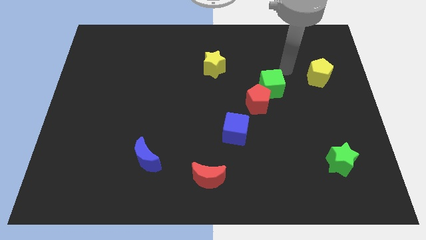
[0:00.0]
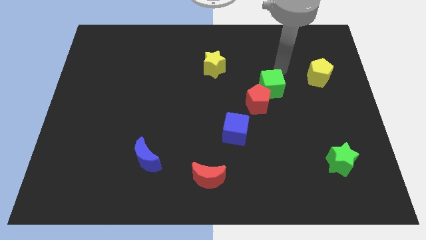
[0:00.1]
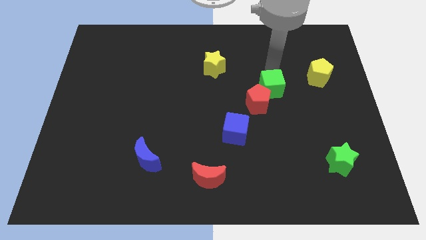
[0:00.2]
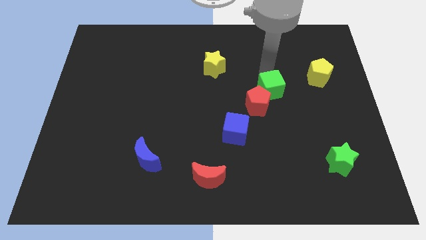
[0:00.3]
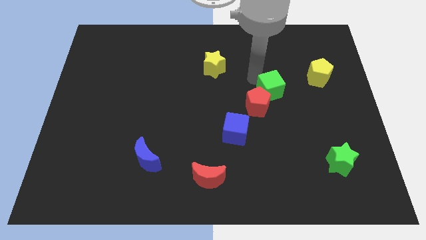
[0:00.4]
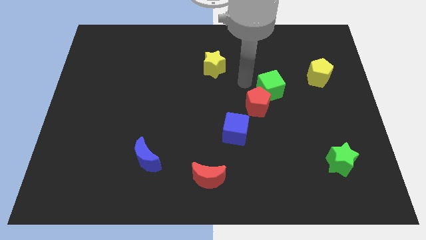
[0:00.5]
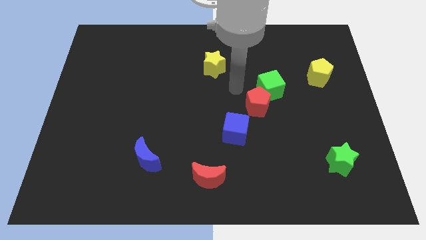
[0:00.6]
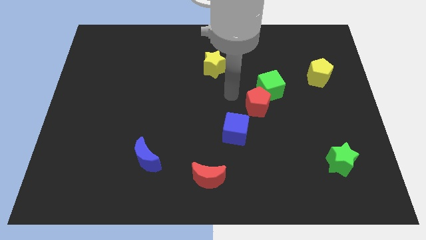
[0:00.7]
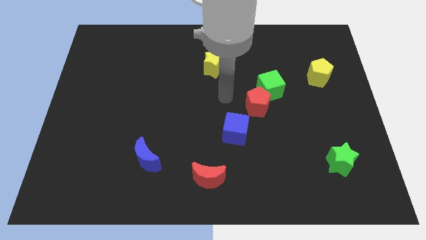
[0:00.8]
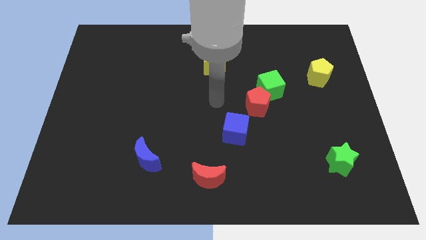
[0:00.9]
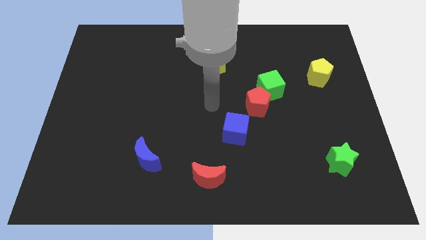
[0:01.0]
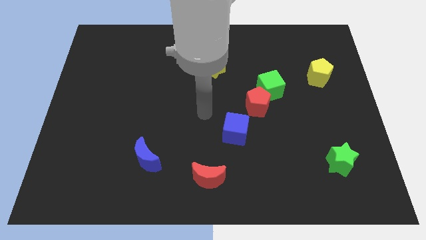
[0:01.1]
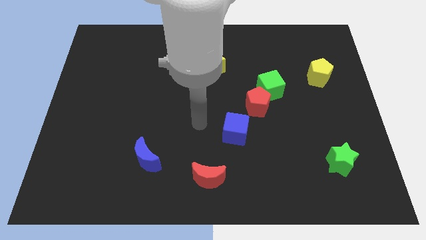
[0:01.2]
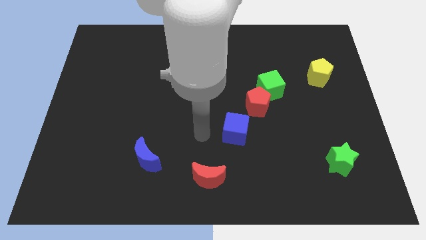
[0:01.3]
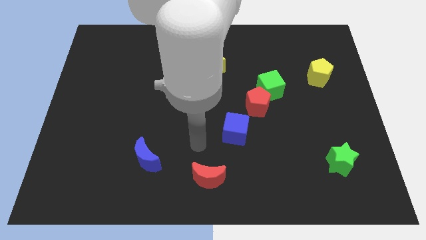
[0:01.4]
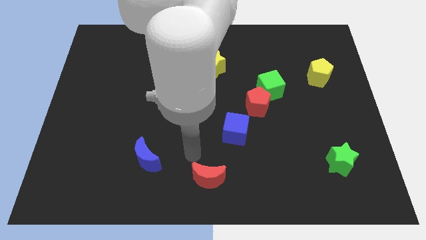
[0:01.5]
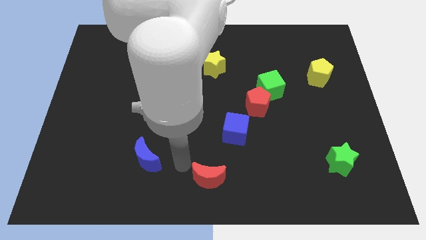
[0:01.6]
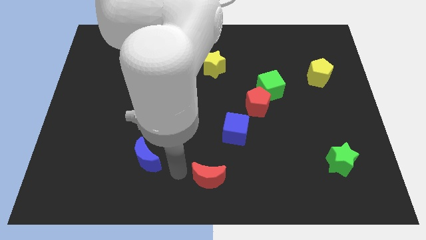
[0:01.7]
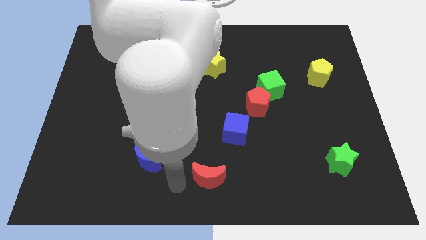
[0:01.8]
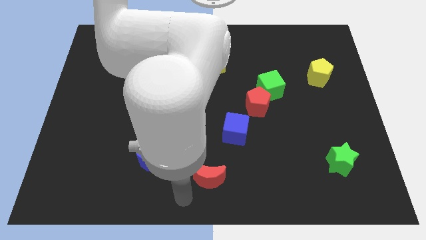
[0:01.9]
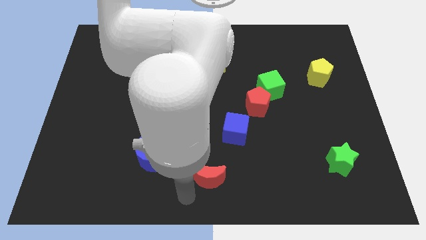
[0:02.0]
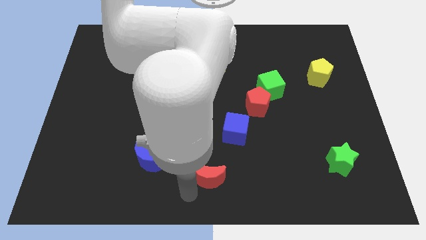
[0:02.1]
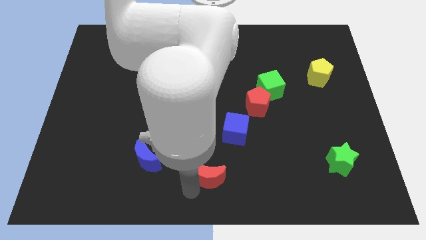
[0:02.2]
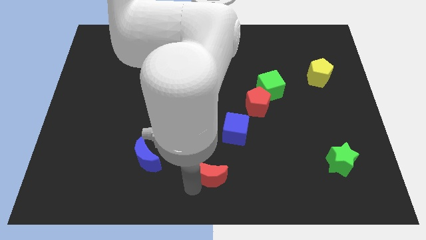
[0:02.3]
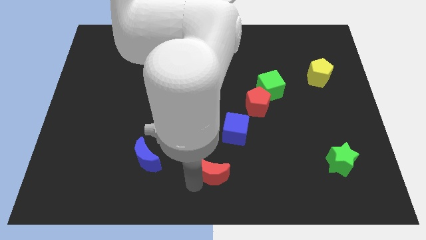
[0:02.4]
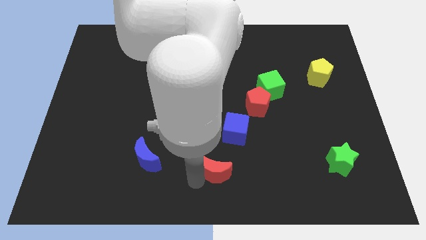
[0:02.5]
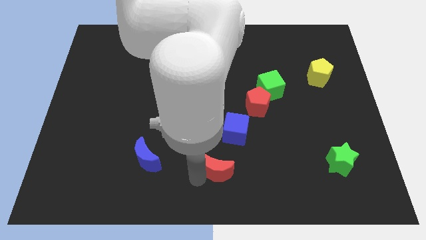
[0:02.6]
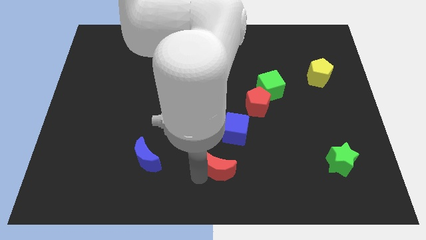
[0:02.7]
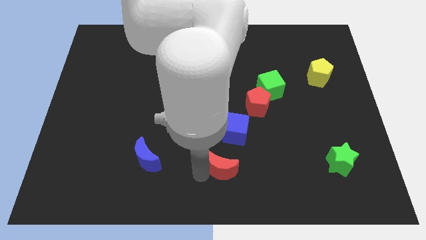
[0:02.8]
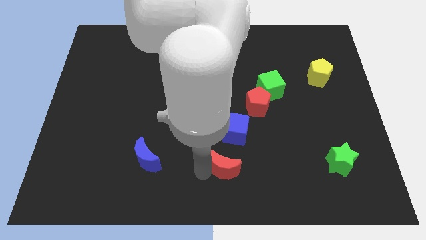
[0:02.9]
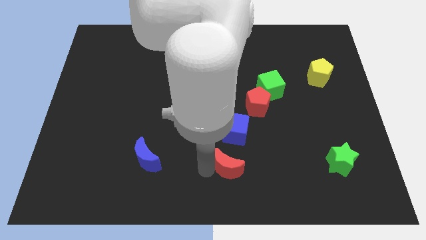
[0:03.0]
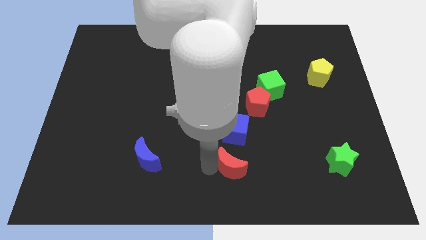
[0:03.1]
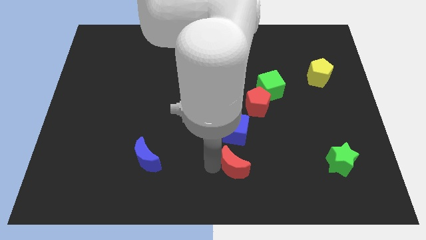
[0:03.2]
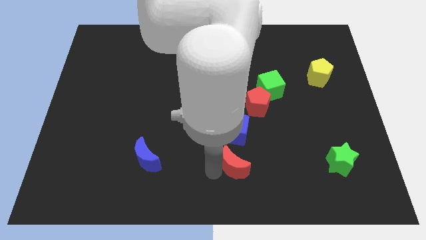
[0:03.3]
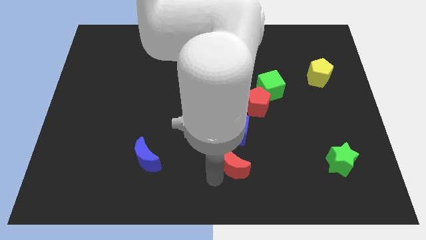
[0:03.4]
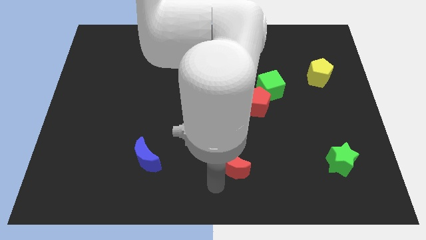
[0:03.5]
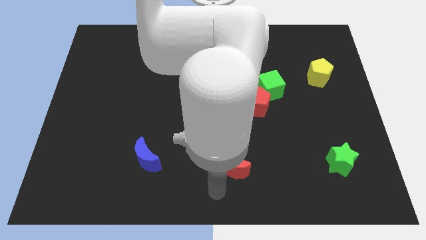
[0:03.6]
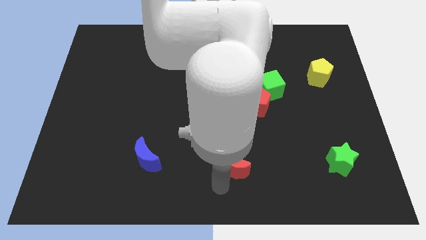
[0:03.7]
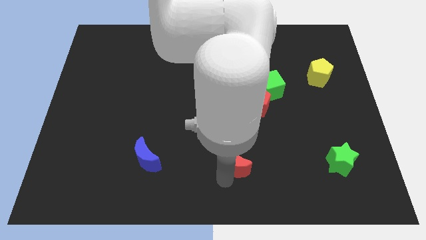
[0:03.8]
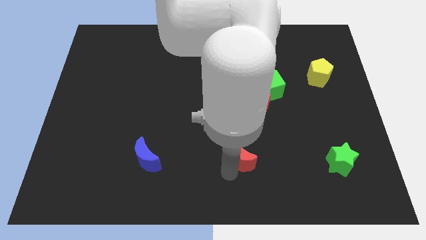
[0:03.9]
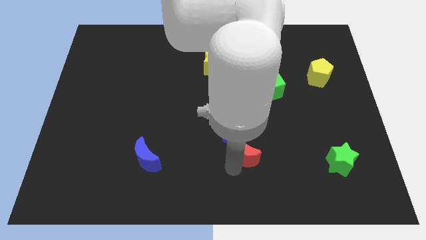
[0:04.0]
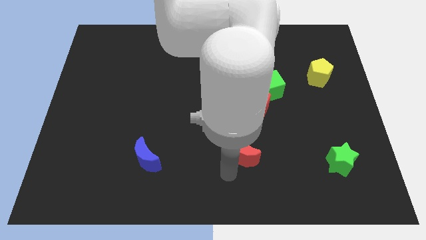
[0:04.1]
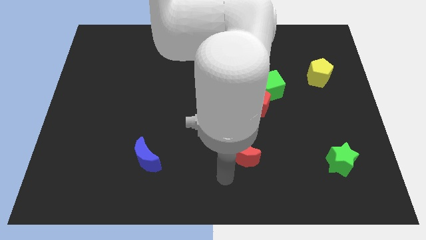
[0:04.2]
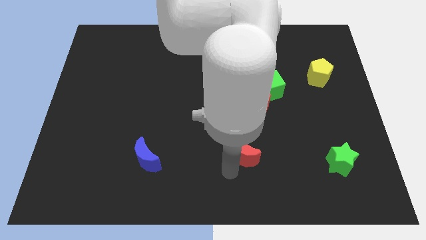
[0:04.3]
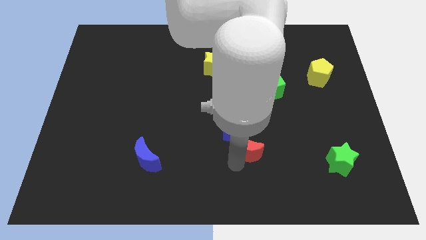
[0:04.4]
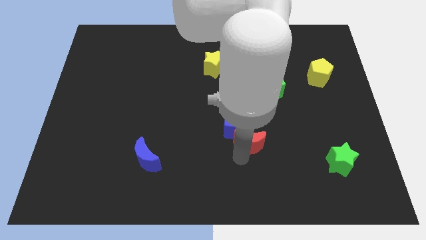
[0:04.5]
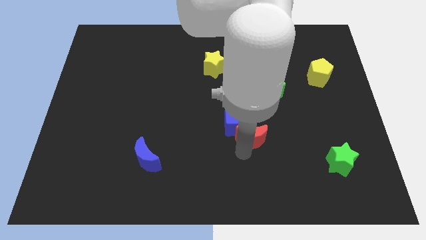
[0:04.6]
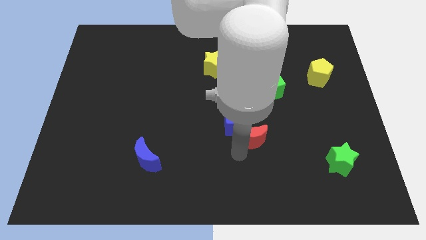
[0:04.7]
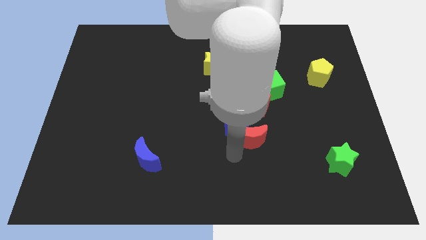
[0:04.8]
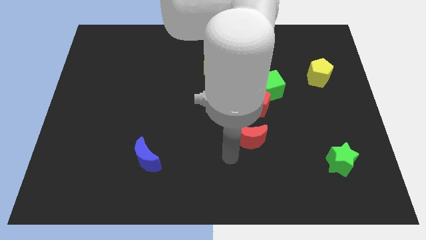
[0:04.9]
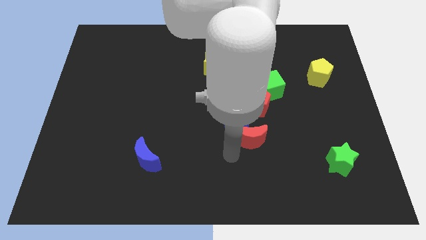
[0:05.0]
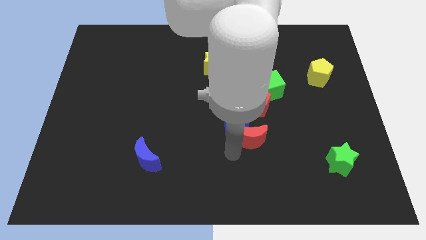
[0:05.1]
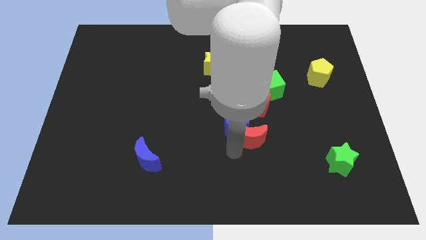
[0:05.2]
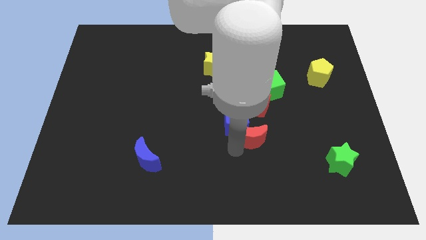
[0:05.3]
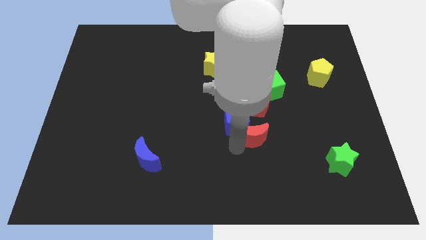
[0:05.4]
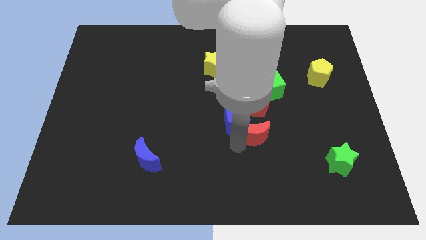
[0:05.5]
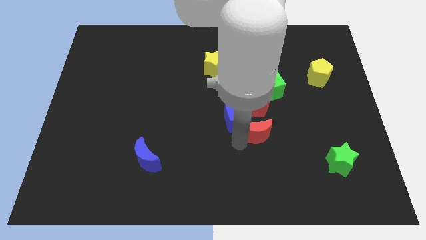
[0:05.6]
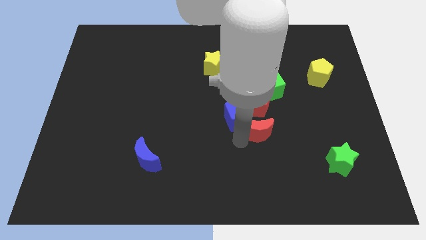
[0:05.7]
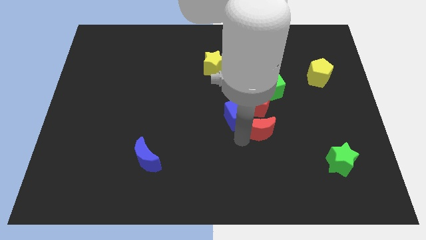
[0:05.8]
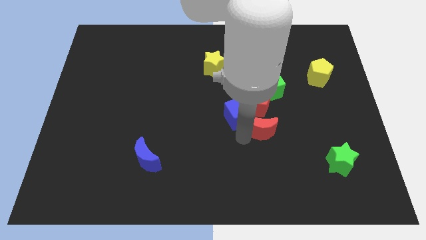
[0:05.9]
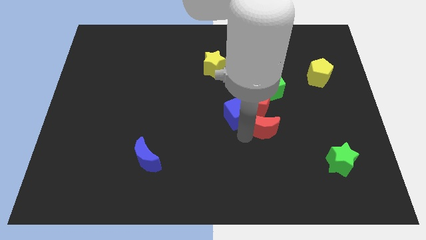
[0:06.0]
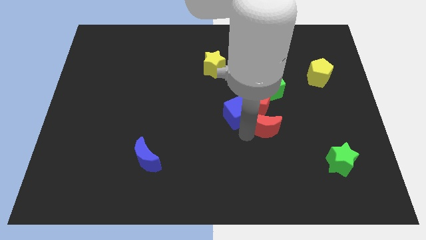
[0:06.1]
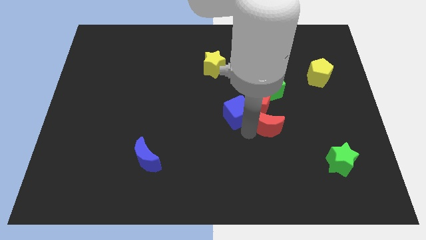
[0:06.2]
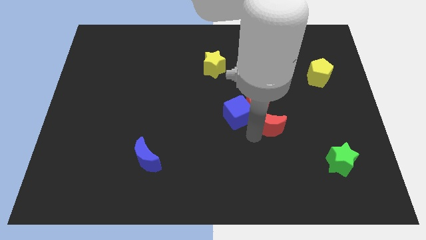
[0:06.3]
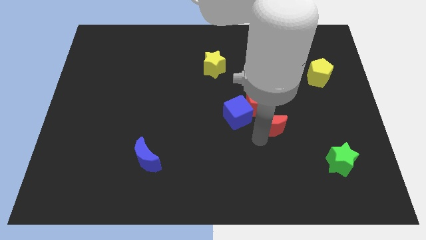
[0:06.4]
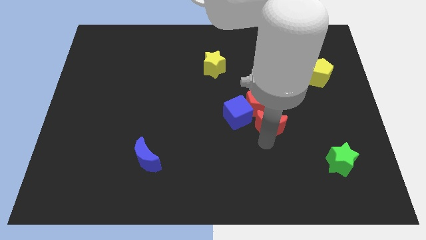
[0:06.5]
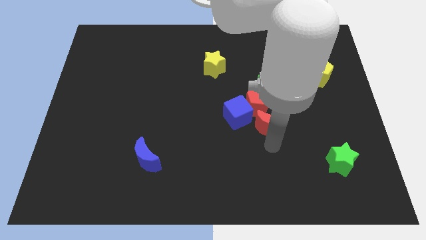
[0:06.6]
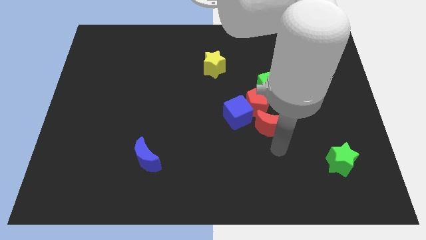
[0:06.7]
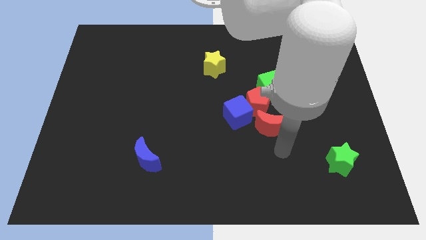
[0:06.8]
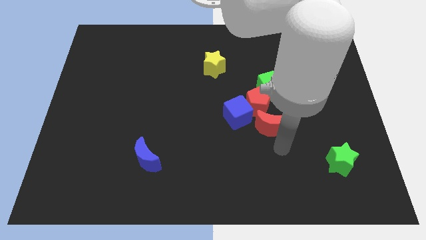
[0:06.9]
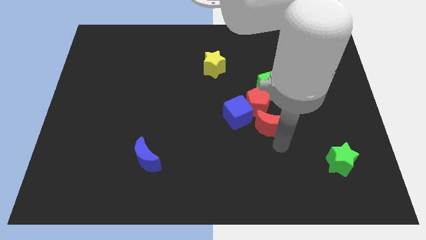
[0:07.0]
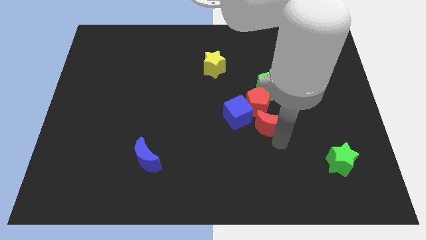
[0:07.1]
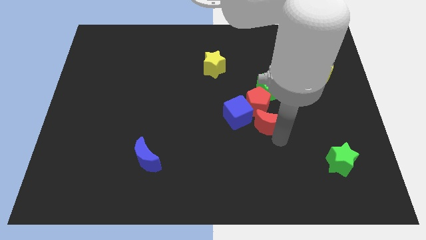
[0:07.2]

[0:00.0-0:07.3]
put the red moon close to the red pentagon
